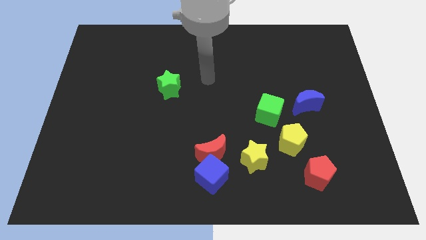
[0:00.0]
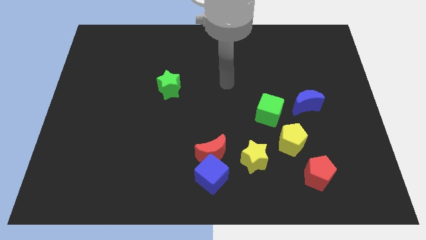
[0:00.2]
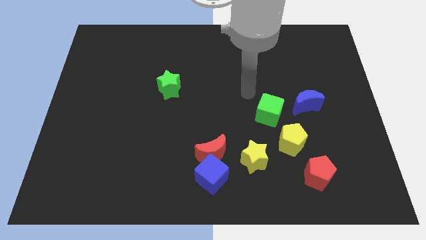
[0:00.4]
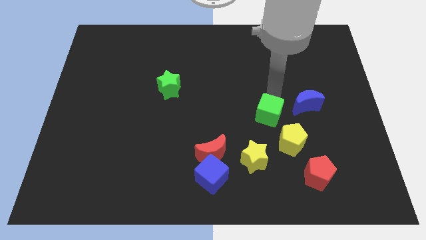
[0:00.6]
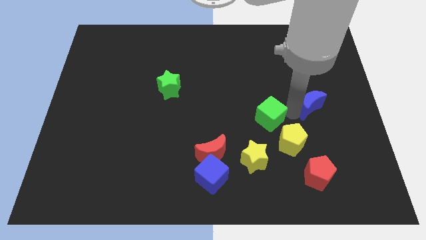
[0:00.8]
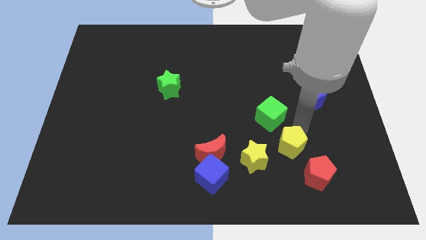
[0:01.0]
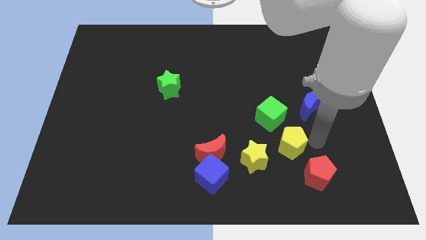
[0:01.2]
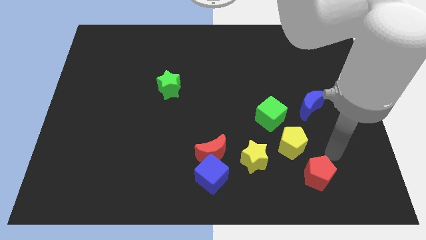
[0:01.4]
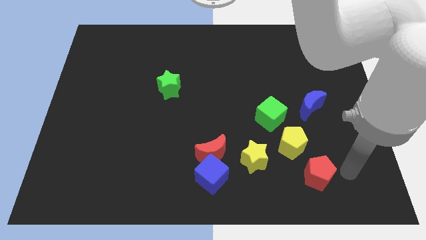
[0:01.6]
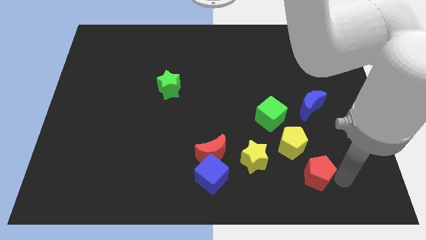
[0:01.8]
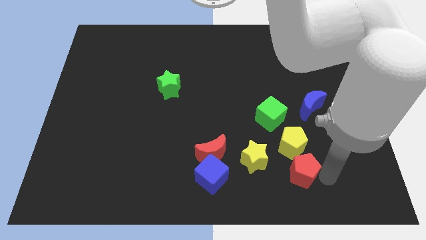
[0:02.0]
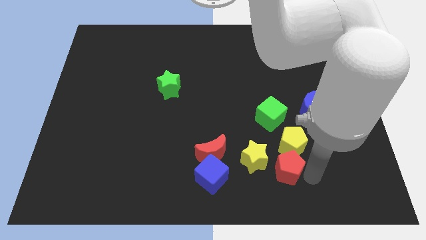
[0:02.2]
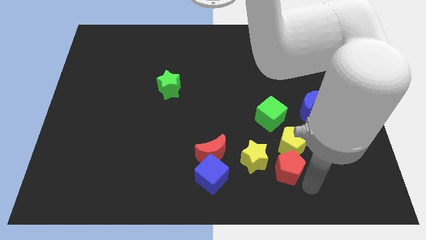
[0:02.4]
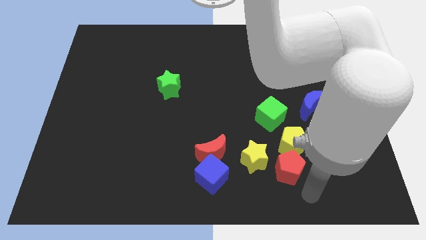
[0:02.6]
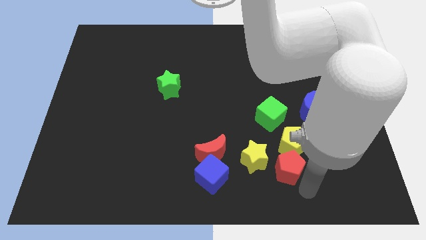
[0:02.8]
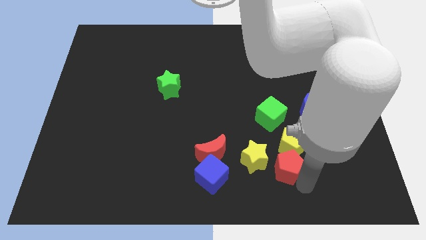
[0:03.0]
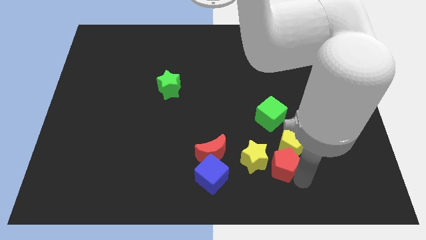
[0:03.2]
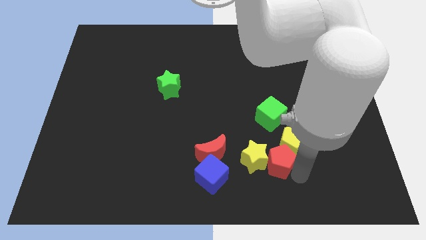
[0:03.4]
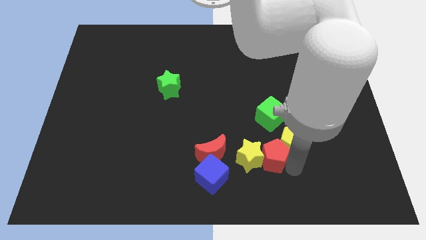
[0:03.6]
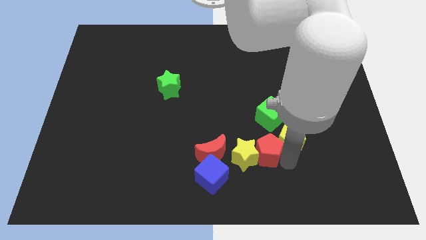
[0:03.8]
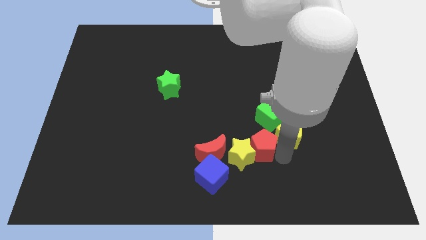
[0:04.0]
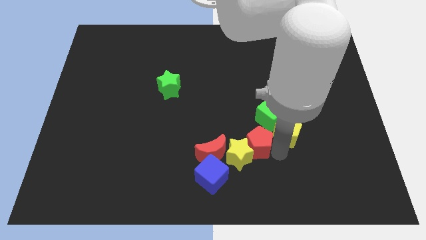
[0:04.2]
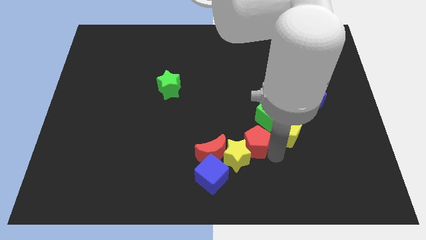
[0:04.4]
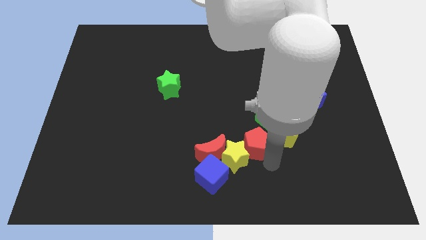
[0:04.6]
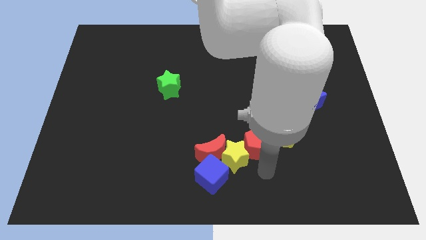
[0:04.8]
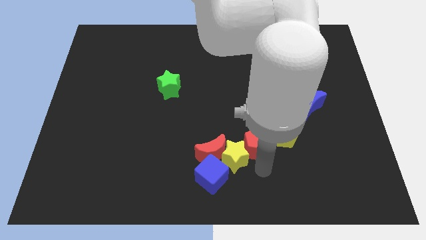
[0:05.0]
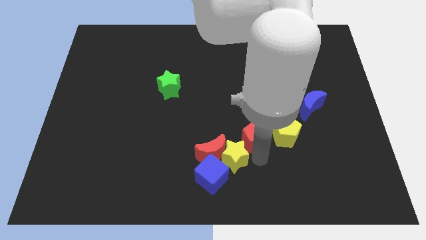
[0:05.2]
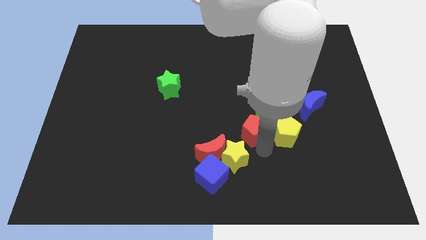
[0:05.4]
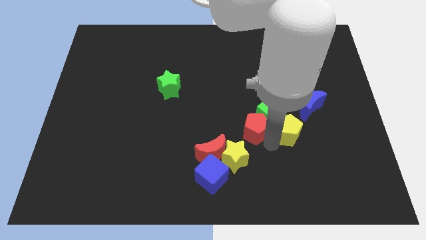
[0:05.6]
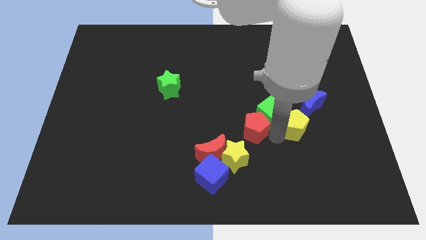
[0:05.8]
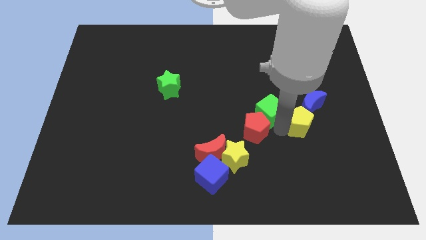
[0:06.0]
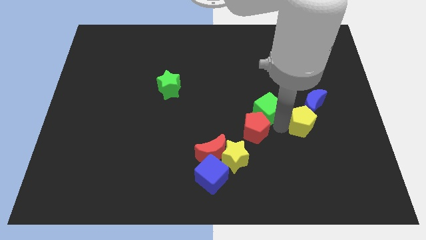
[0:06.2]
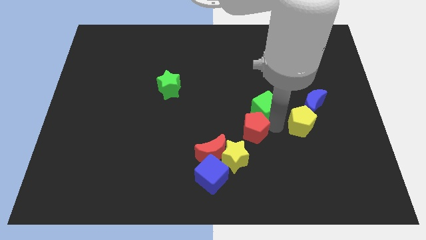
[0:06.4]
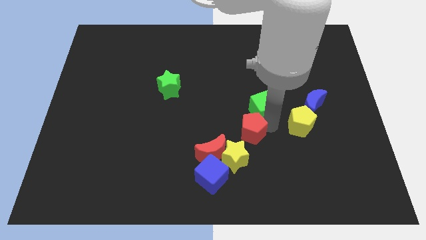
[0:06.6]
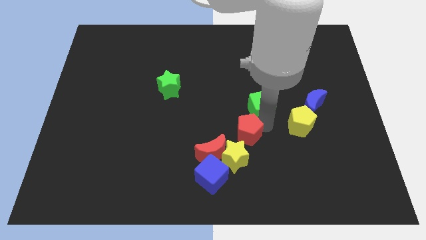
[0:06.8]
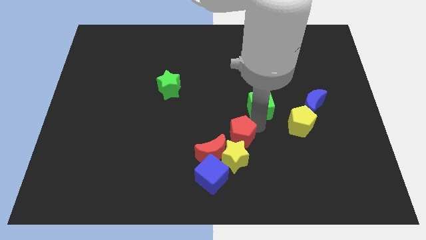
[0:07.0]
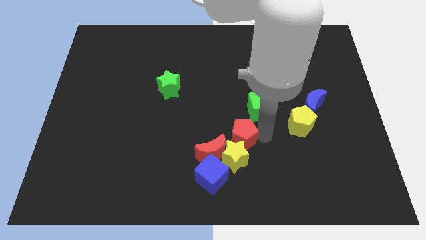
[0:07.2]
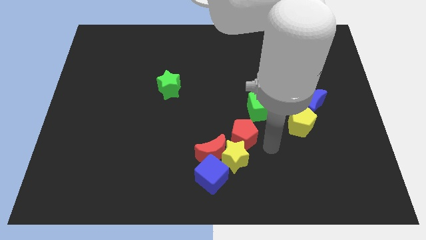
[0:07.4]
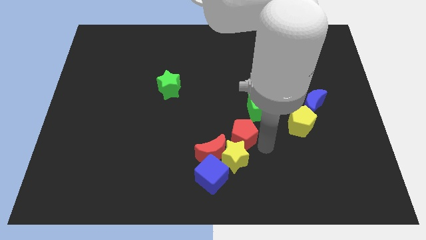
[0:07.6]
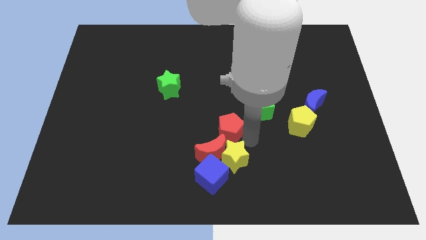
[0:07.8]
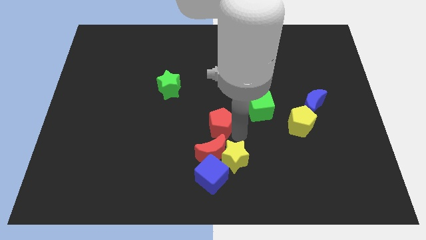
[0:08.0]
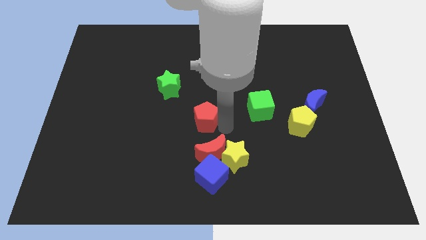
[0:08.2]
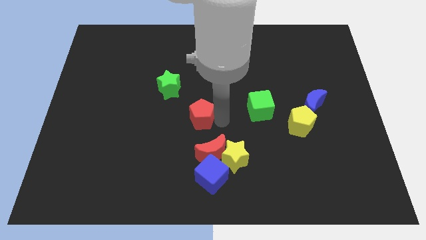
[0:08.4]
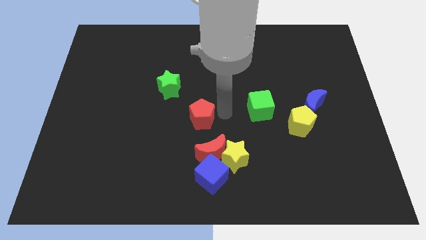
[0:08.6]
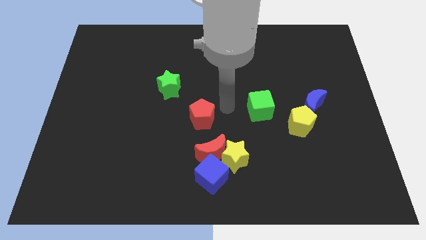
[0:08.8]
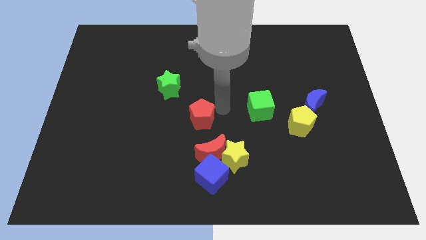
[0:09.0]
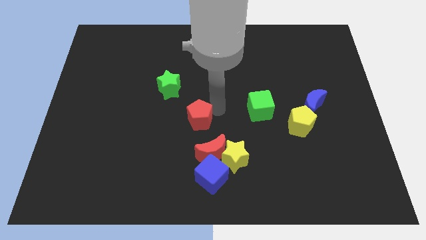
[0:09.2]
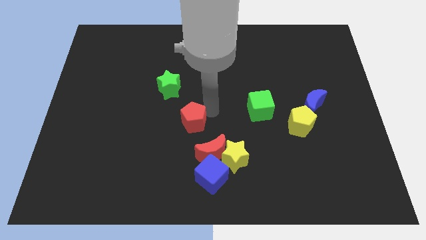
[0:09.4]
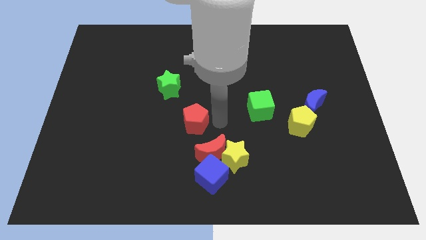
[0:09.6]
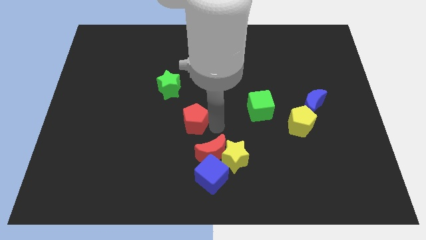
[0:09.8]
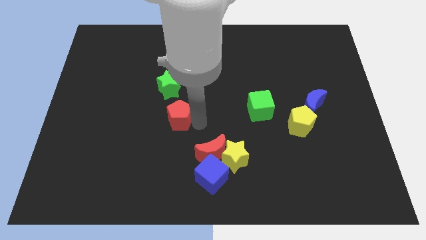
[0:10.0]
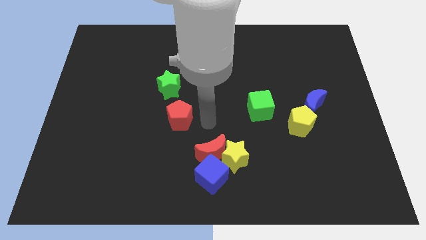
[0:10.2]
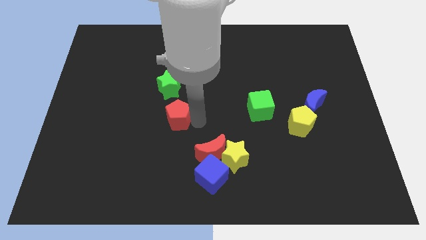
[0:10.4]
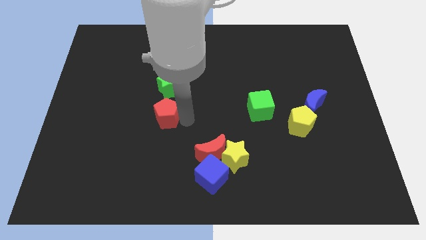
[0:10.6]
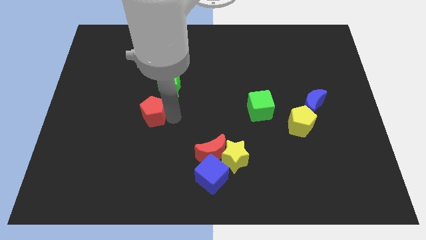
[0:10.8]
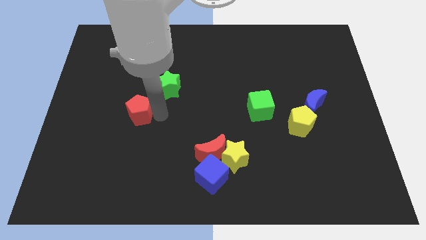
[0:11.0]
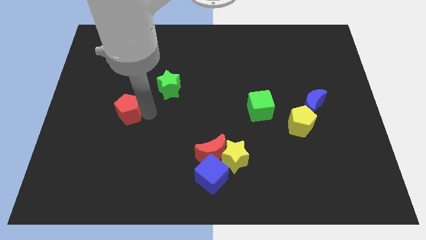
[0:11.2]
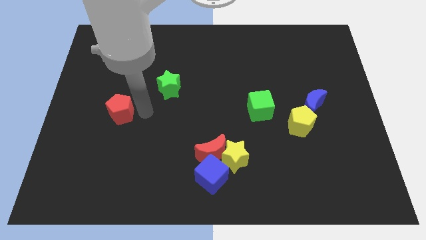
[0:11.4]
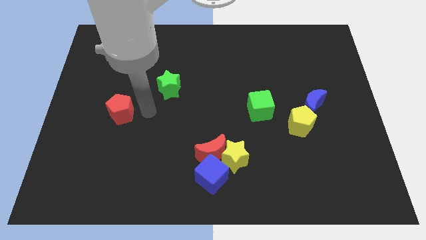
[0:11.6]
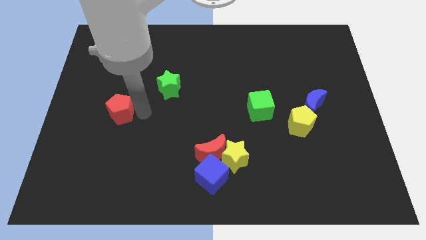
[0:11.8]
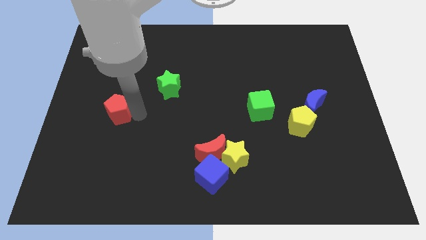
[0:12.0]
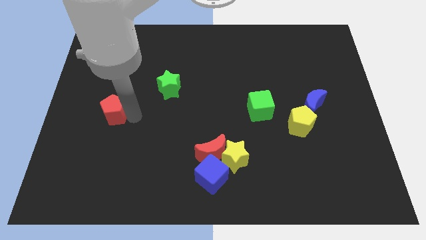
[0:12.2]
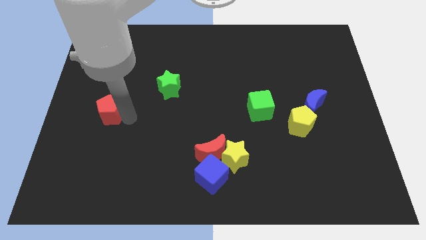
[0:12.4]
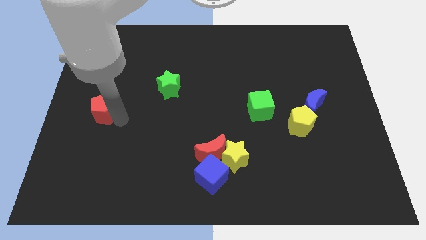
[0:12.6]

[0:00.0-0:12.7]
put the red pentagon to the left side

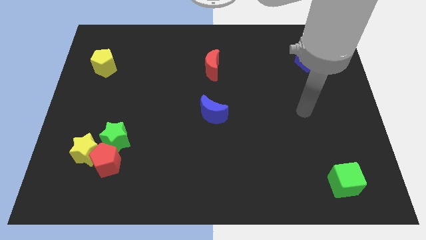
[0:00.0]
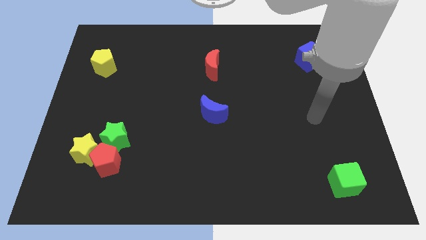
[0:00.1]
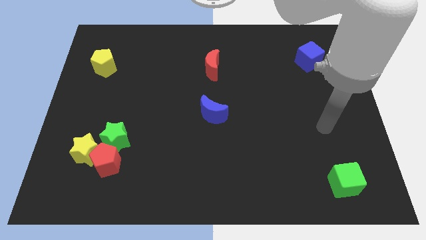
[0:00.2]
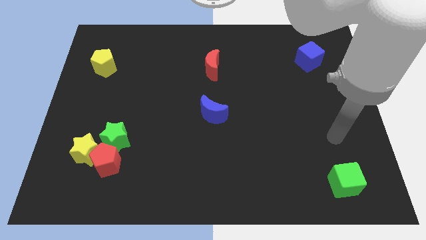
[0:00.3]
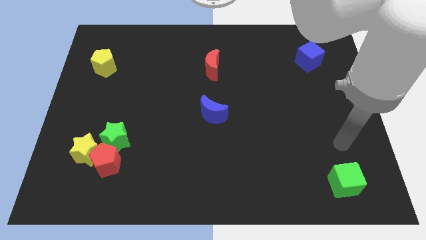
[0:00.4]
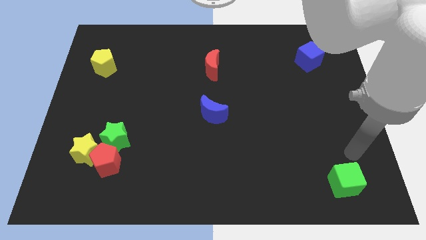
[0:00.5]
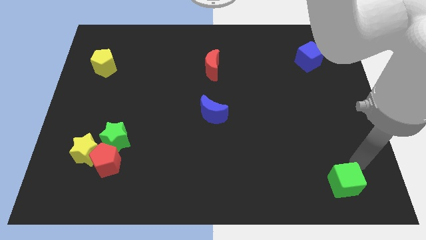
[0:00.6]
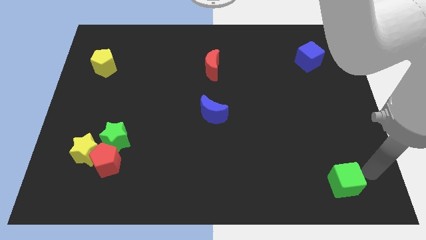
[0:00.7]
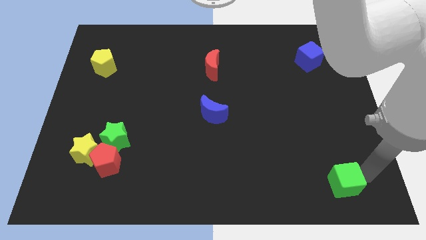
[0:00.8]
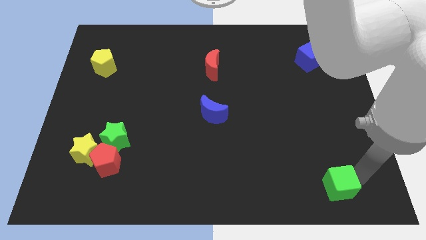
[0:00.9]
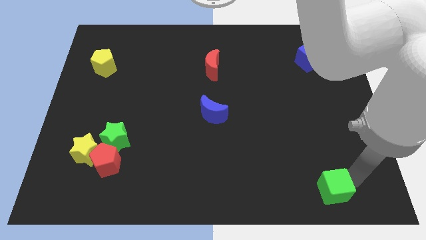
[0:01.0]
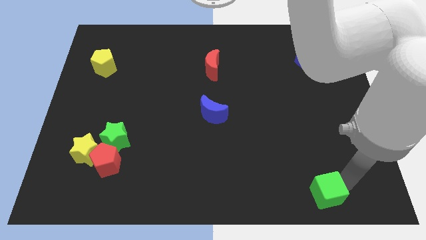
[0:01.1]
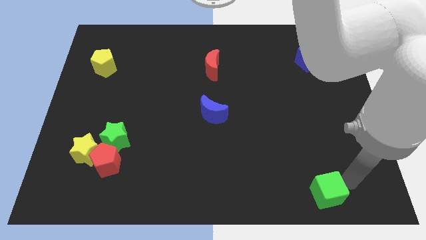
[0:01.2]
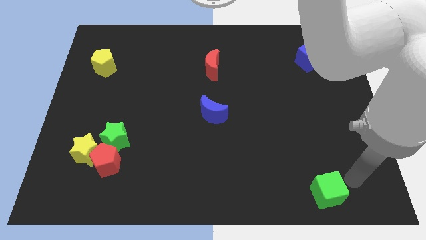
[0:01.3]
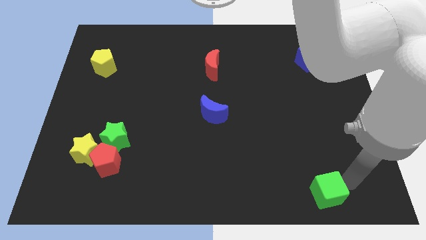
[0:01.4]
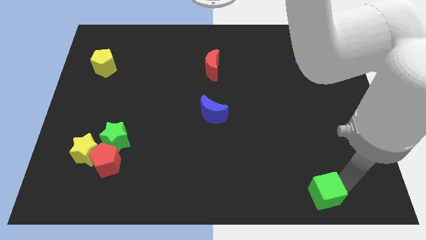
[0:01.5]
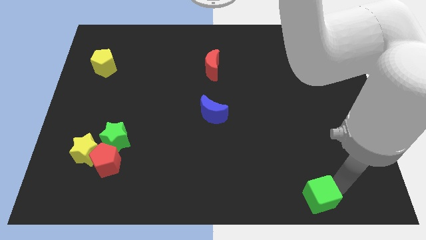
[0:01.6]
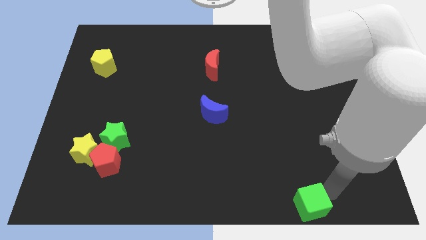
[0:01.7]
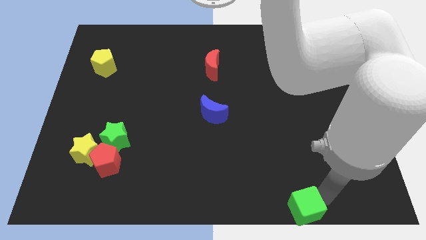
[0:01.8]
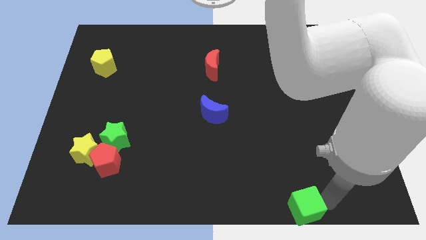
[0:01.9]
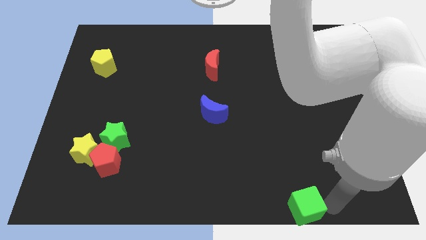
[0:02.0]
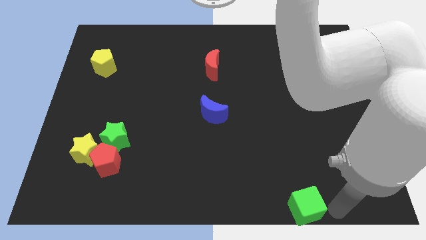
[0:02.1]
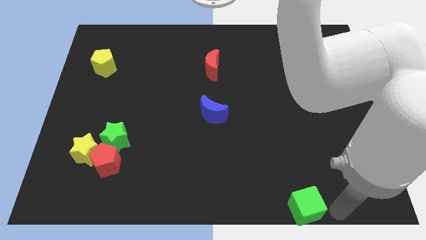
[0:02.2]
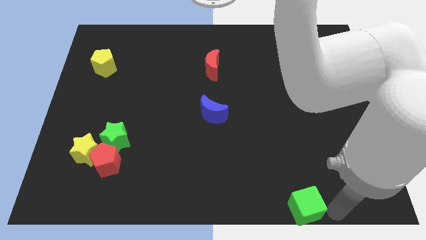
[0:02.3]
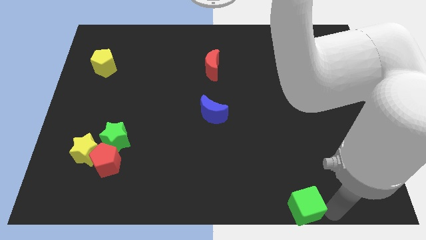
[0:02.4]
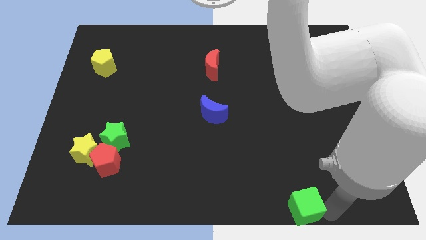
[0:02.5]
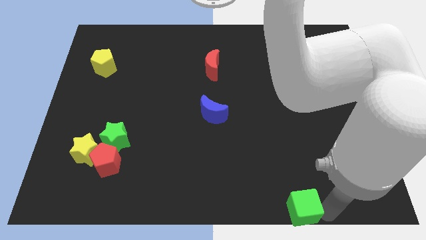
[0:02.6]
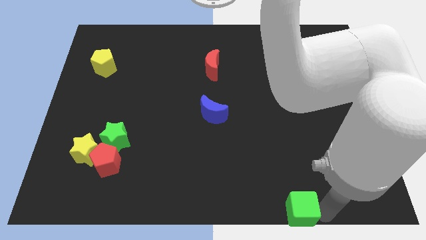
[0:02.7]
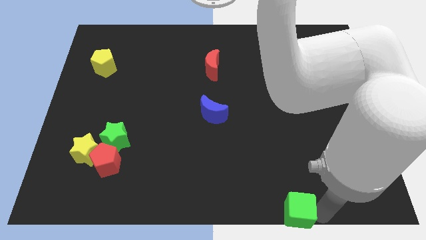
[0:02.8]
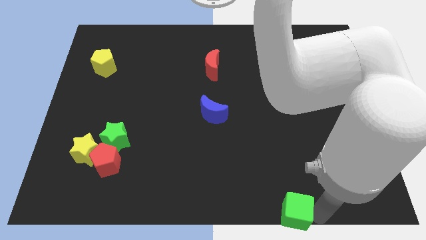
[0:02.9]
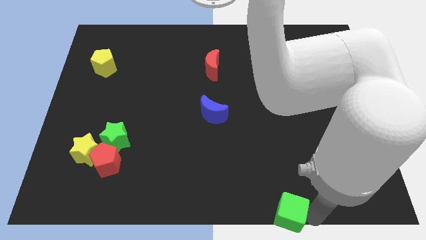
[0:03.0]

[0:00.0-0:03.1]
put the green cube to the bottom
